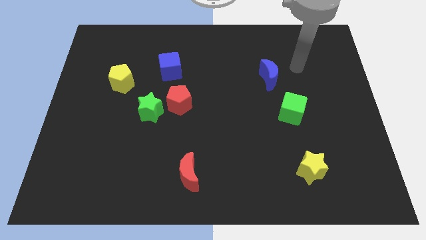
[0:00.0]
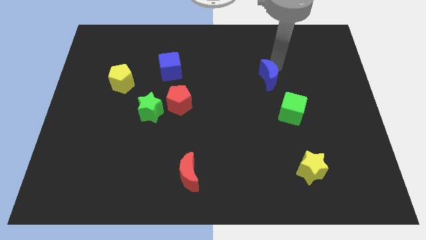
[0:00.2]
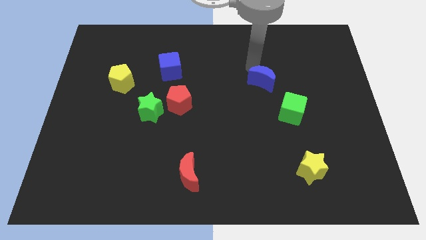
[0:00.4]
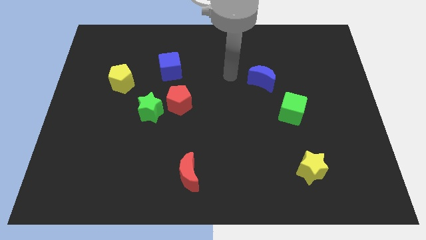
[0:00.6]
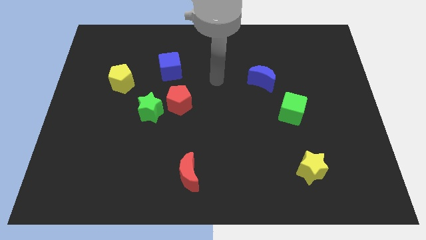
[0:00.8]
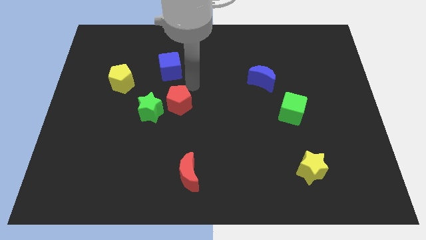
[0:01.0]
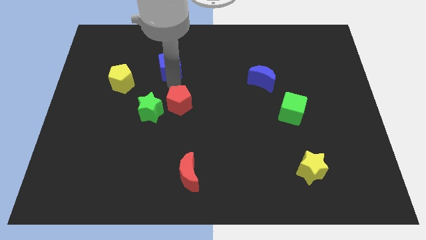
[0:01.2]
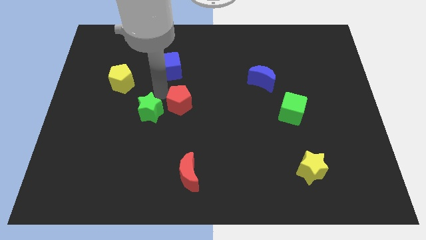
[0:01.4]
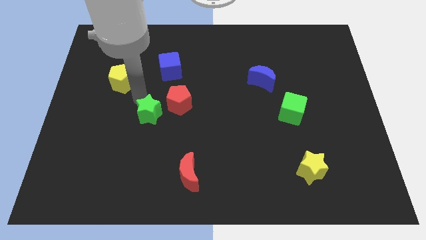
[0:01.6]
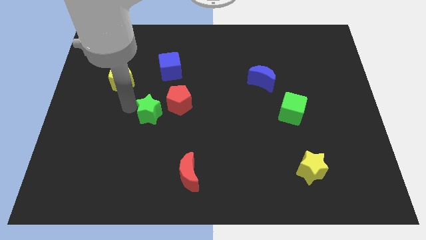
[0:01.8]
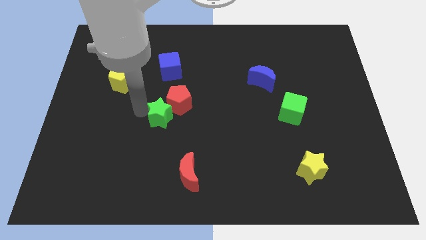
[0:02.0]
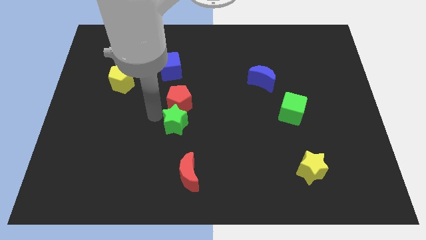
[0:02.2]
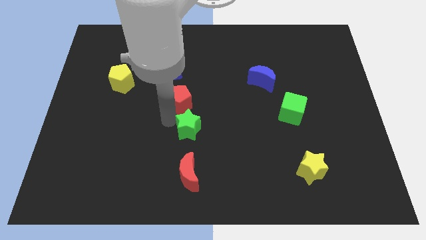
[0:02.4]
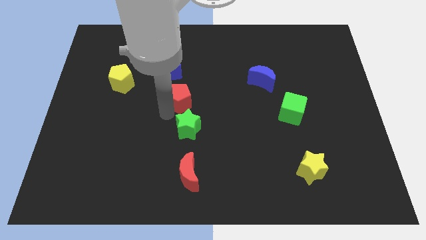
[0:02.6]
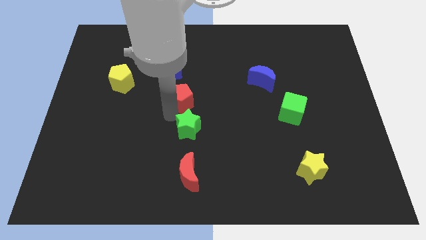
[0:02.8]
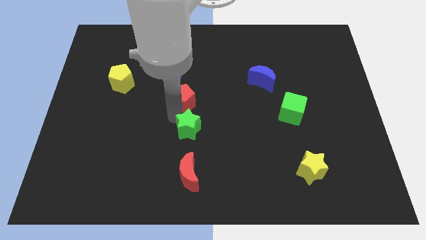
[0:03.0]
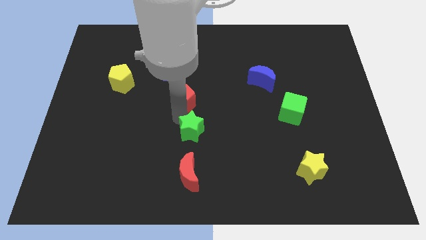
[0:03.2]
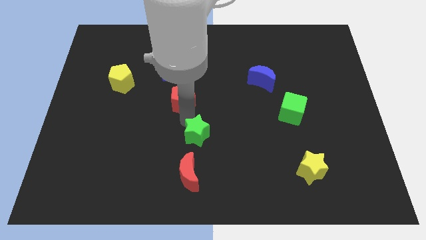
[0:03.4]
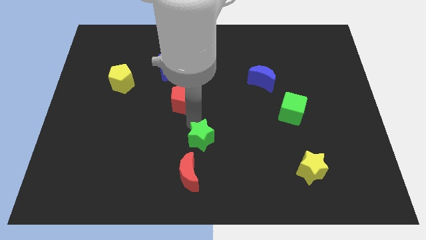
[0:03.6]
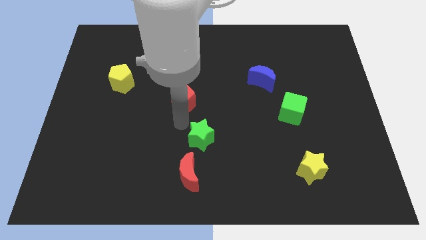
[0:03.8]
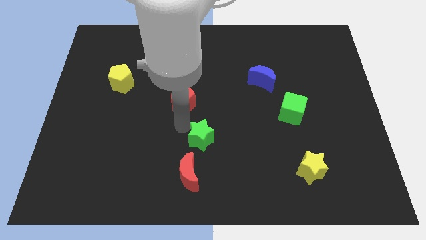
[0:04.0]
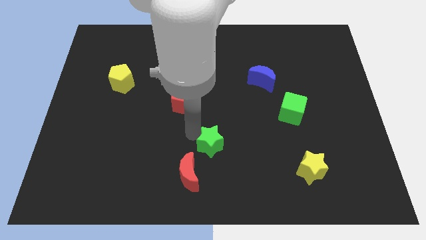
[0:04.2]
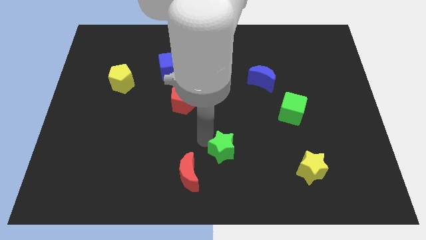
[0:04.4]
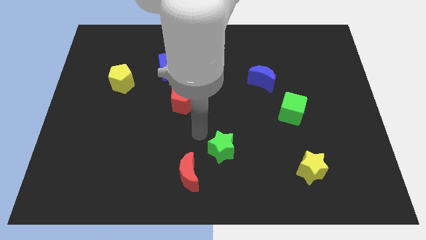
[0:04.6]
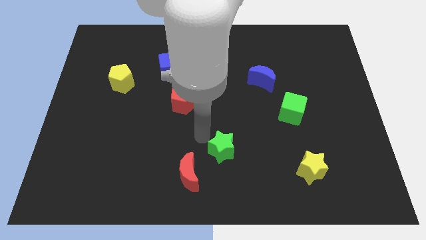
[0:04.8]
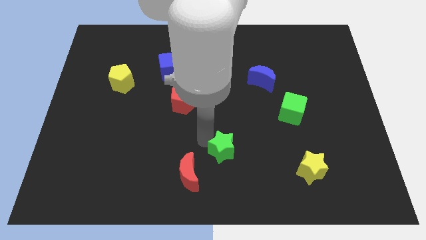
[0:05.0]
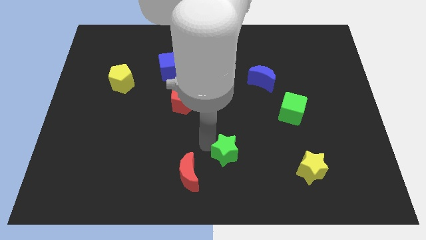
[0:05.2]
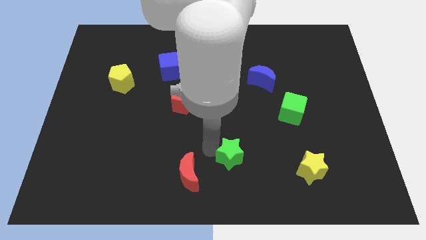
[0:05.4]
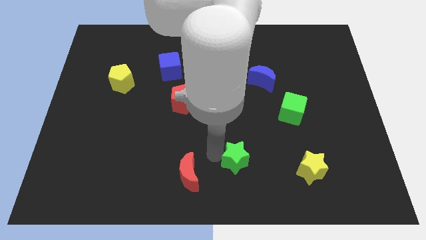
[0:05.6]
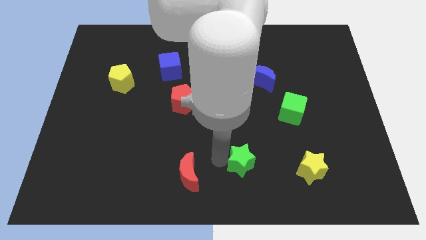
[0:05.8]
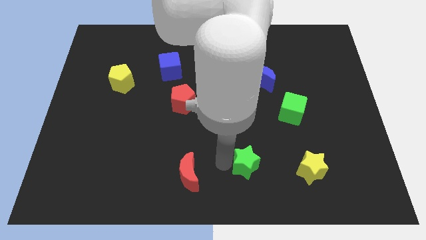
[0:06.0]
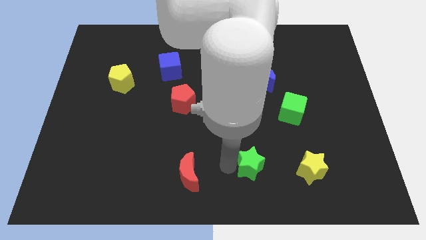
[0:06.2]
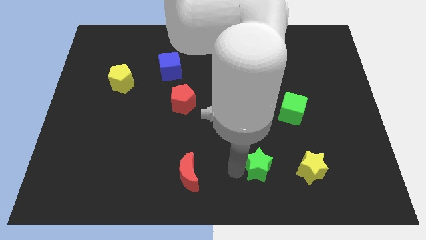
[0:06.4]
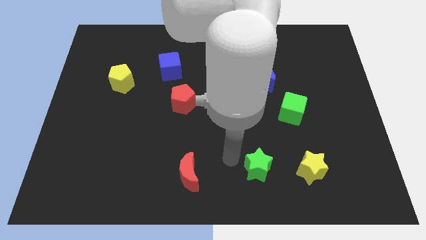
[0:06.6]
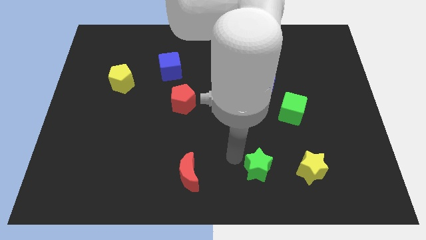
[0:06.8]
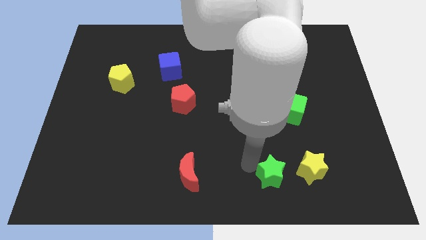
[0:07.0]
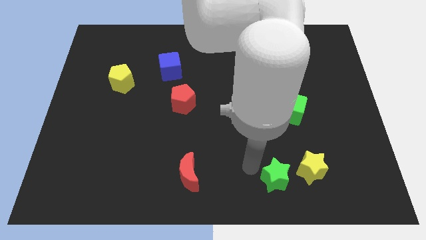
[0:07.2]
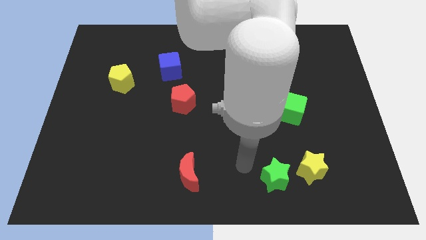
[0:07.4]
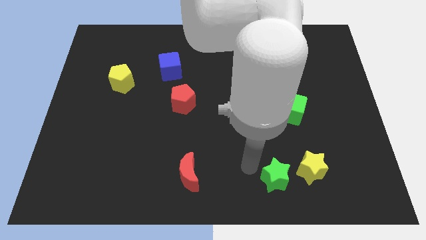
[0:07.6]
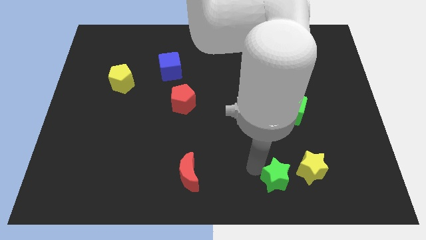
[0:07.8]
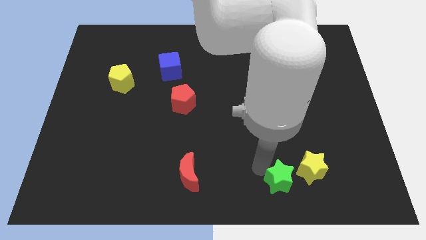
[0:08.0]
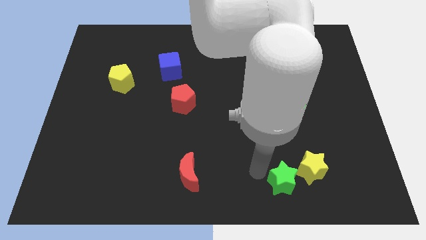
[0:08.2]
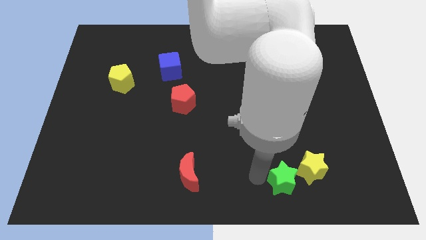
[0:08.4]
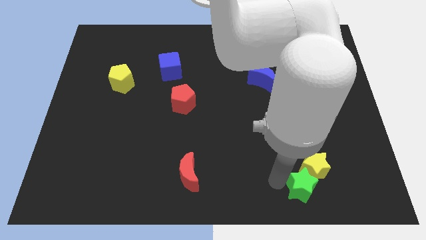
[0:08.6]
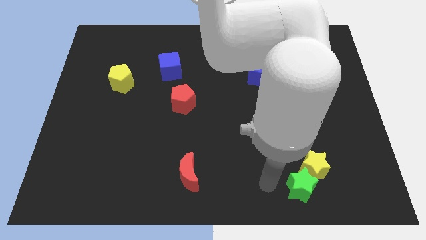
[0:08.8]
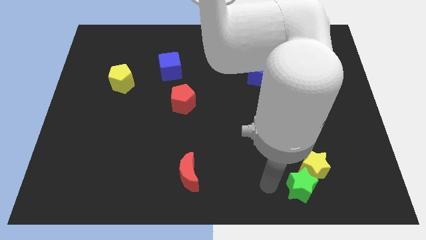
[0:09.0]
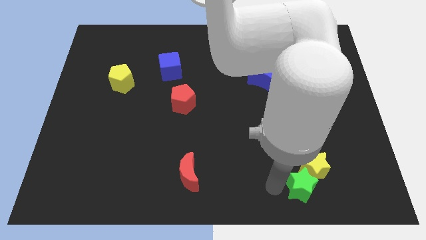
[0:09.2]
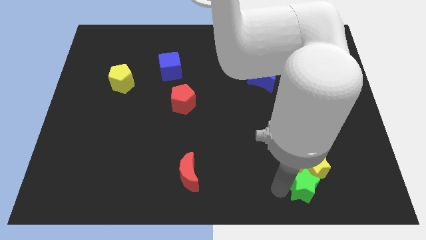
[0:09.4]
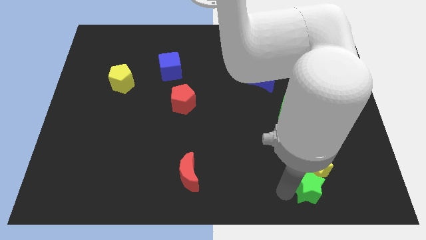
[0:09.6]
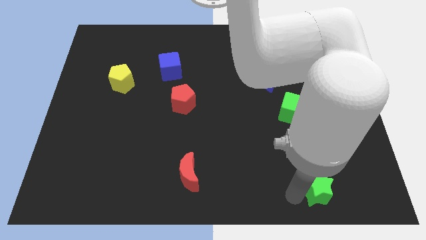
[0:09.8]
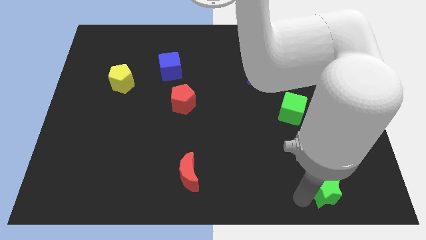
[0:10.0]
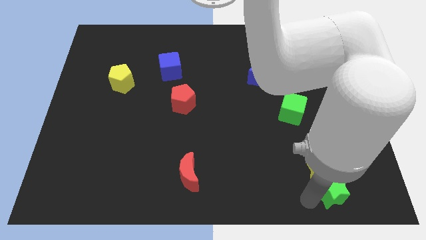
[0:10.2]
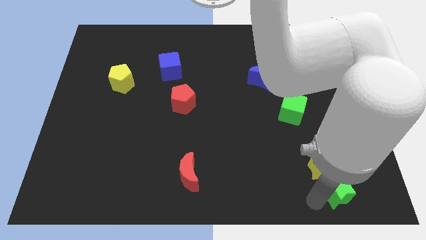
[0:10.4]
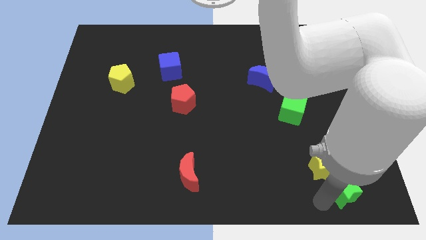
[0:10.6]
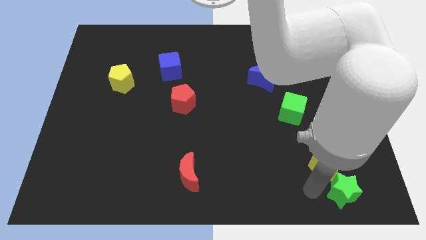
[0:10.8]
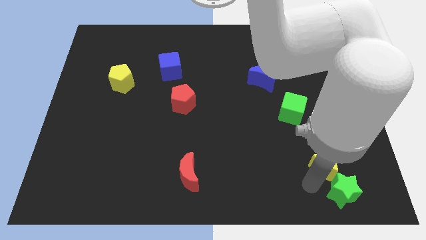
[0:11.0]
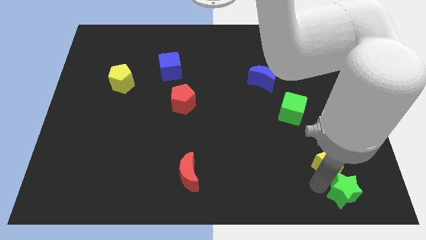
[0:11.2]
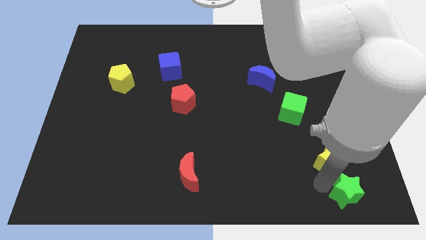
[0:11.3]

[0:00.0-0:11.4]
move the green star to the lower right corner
